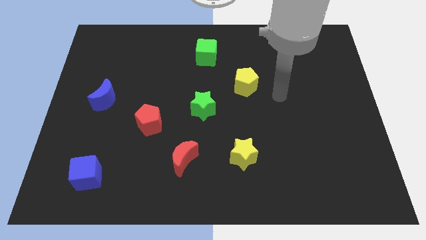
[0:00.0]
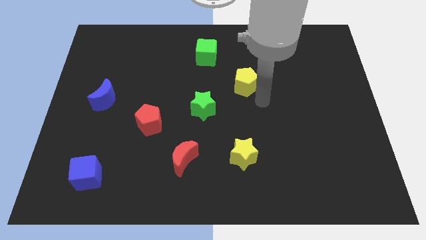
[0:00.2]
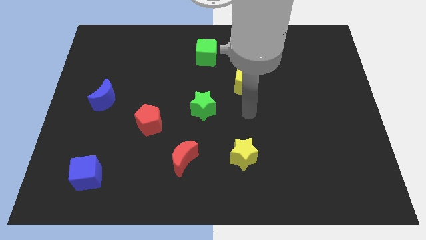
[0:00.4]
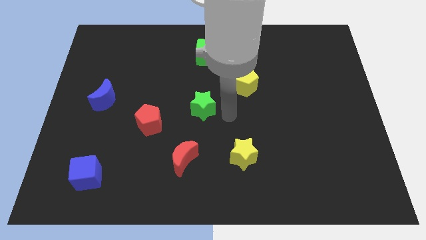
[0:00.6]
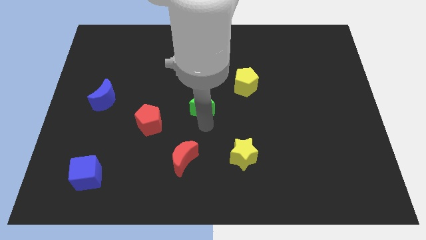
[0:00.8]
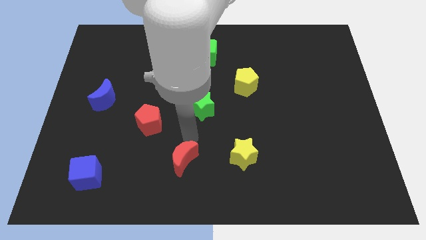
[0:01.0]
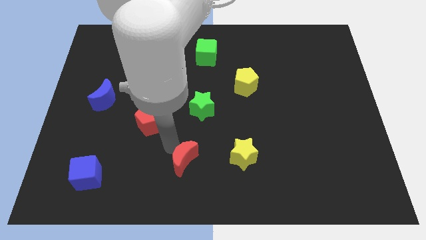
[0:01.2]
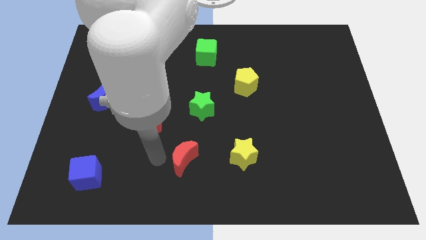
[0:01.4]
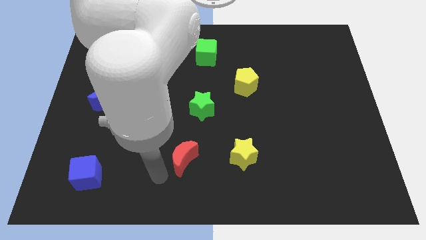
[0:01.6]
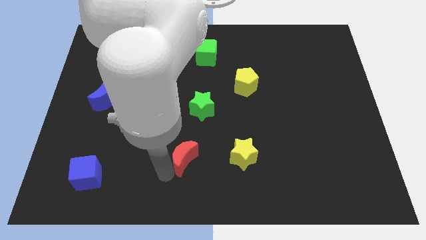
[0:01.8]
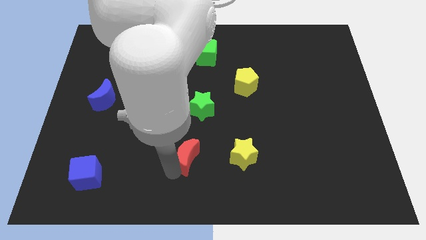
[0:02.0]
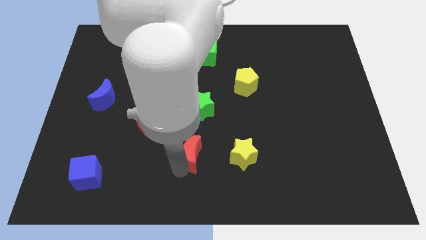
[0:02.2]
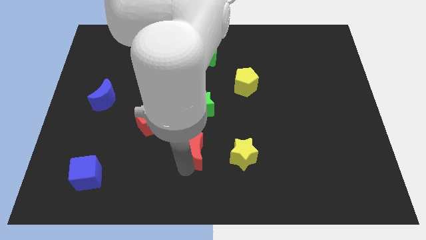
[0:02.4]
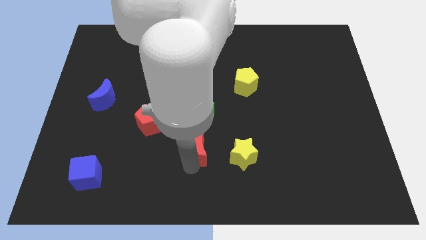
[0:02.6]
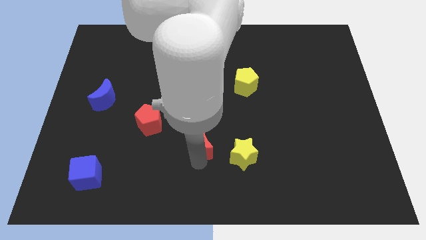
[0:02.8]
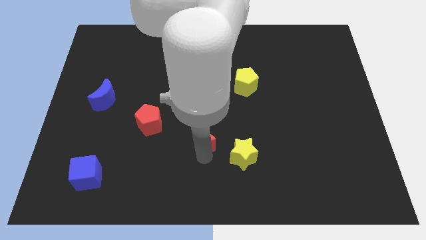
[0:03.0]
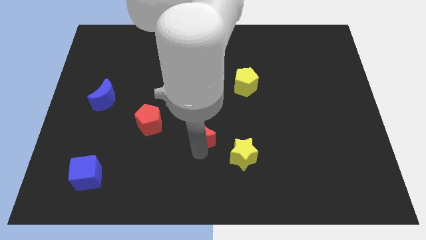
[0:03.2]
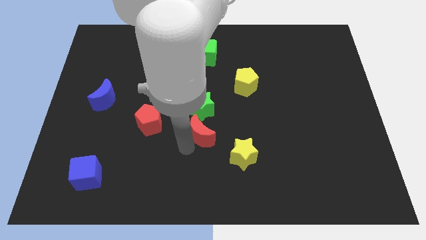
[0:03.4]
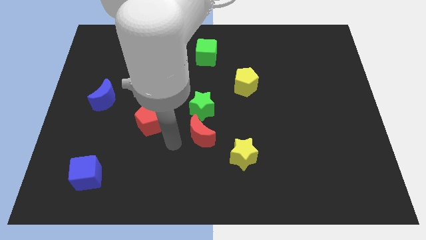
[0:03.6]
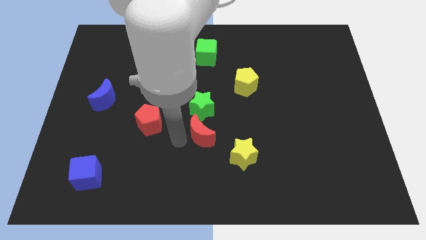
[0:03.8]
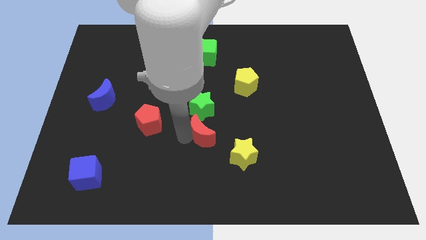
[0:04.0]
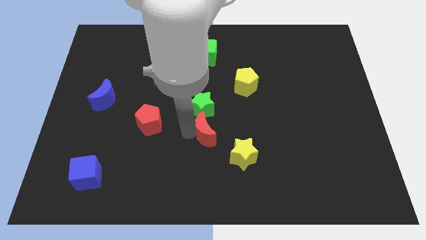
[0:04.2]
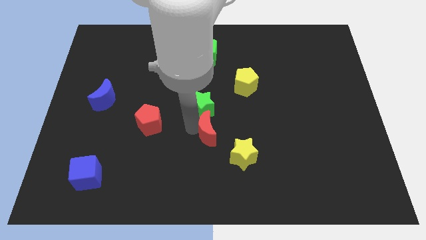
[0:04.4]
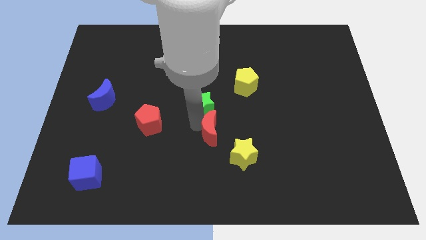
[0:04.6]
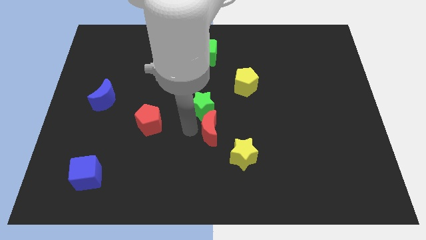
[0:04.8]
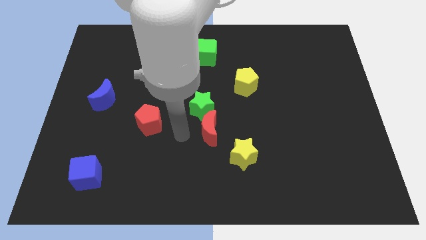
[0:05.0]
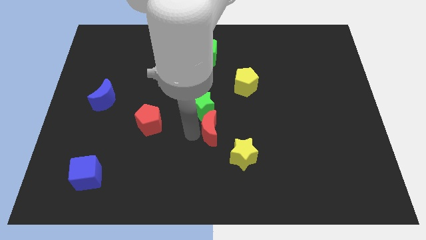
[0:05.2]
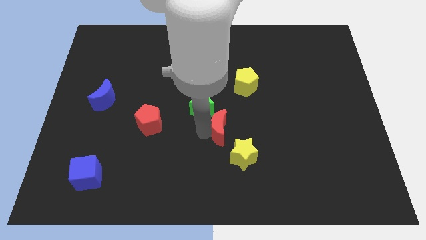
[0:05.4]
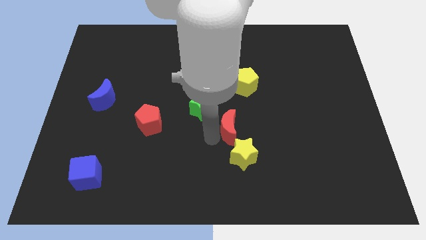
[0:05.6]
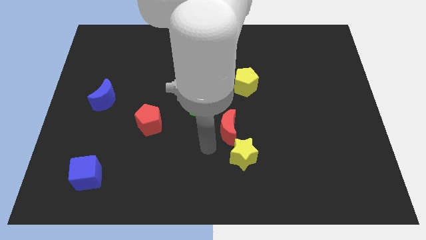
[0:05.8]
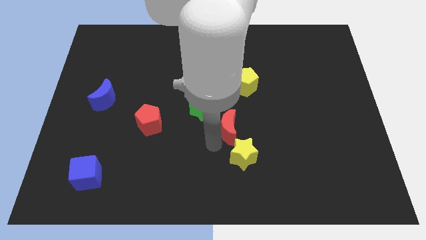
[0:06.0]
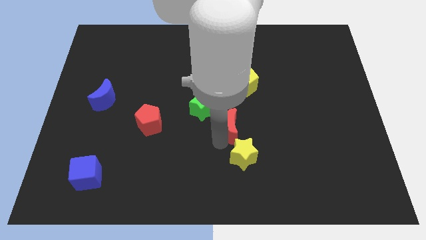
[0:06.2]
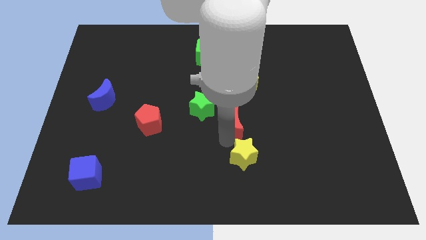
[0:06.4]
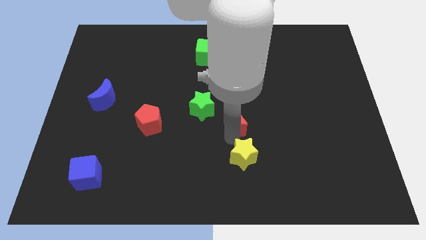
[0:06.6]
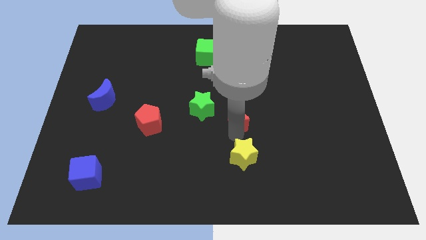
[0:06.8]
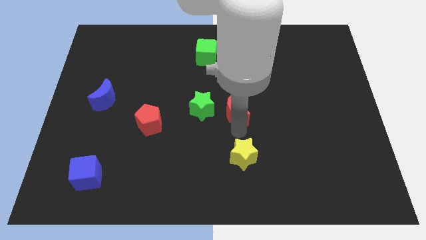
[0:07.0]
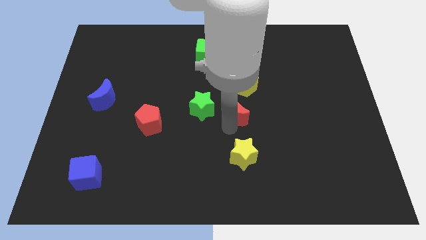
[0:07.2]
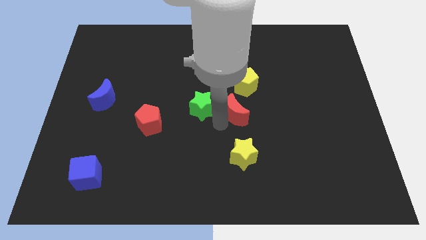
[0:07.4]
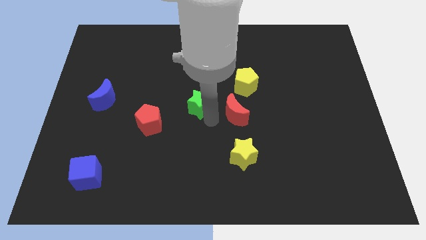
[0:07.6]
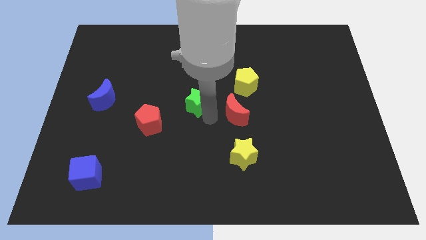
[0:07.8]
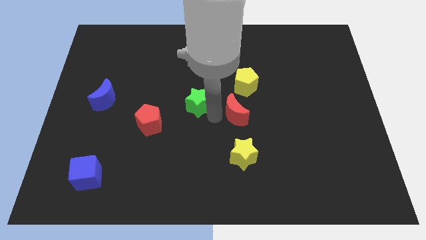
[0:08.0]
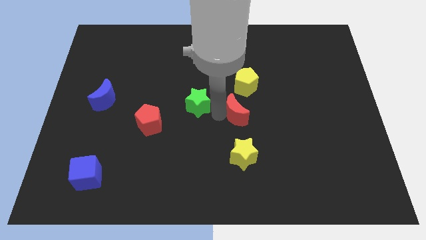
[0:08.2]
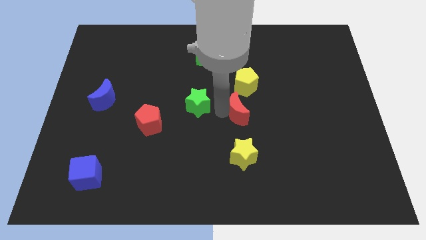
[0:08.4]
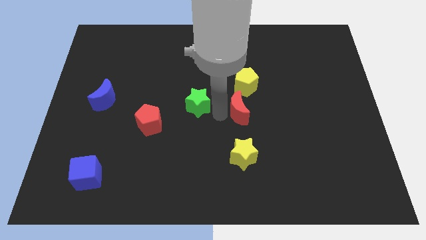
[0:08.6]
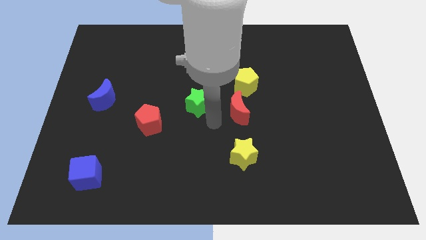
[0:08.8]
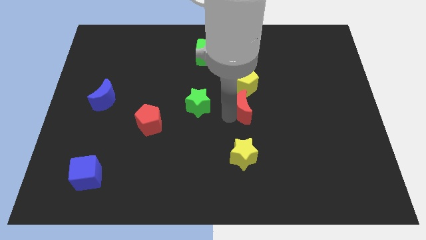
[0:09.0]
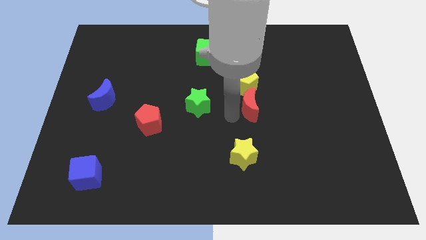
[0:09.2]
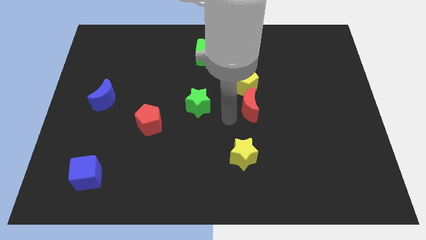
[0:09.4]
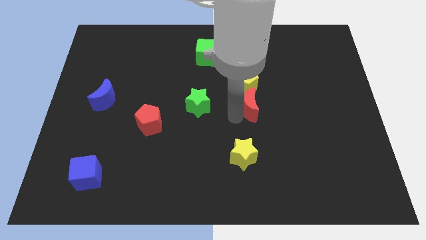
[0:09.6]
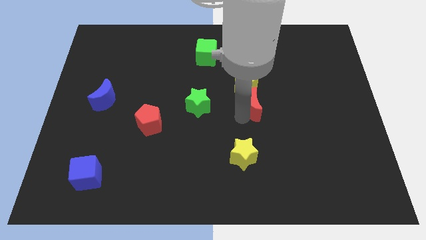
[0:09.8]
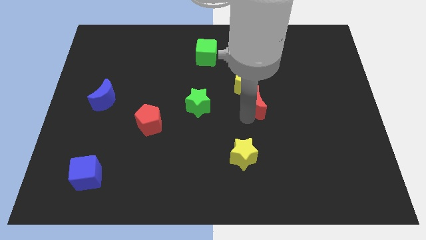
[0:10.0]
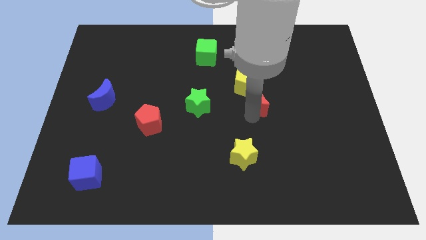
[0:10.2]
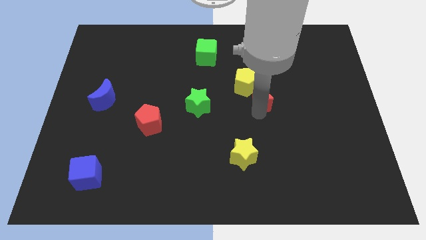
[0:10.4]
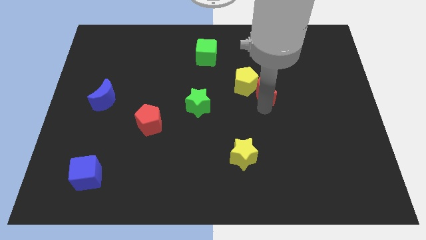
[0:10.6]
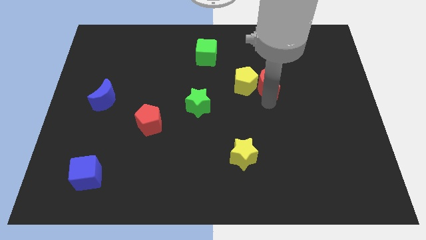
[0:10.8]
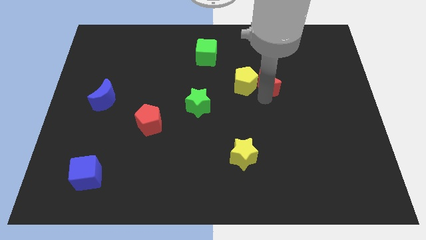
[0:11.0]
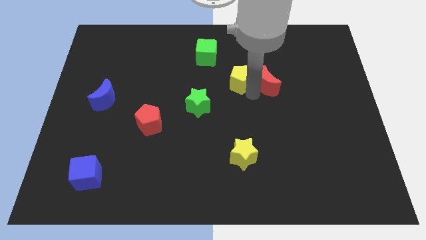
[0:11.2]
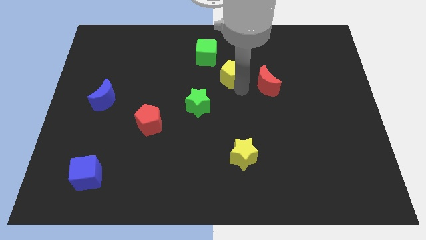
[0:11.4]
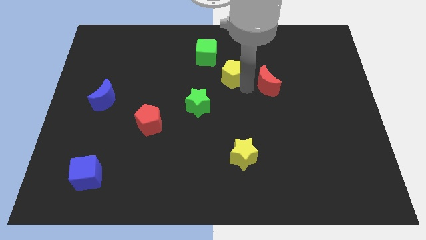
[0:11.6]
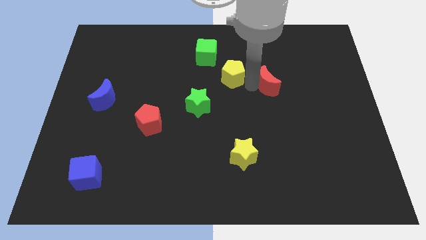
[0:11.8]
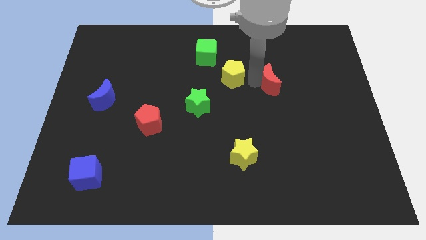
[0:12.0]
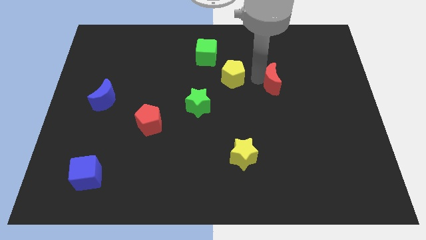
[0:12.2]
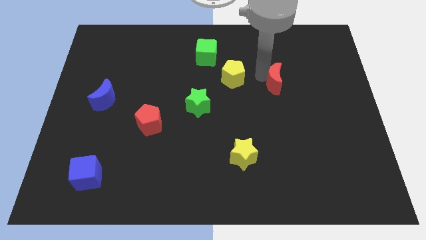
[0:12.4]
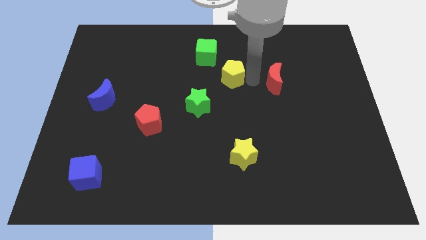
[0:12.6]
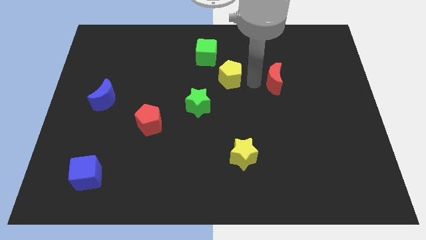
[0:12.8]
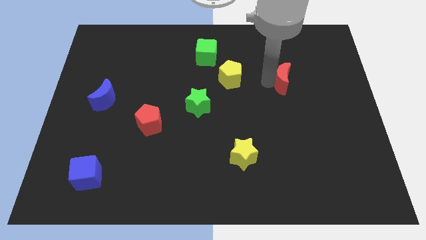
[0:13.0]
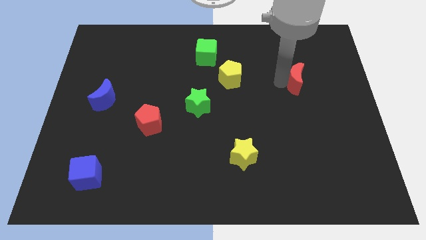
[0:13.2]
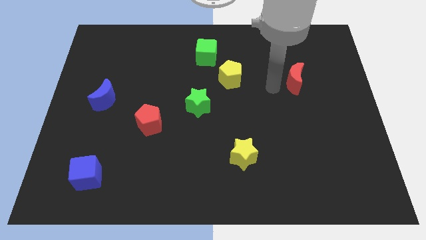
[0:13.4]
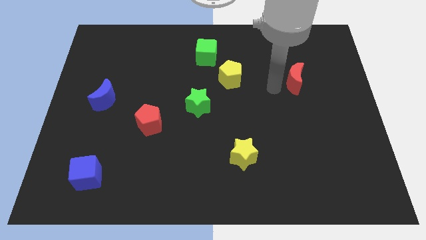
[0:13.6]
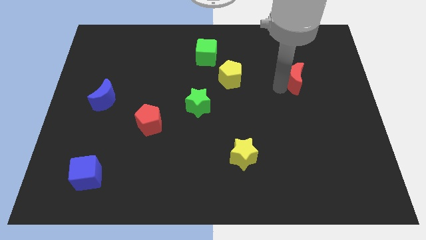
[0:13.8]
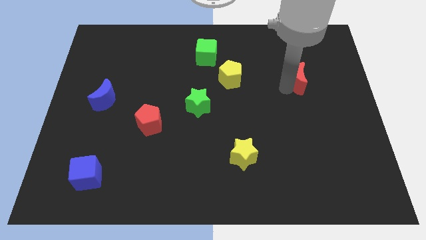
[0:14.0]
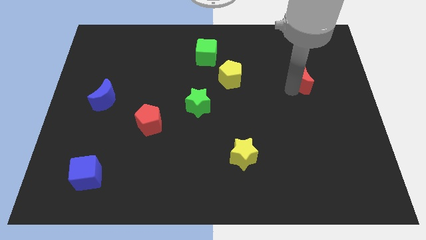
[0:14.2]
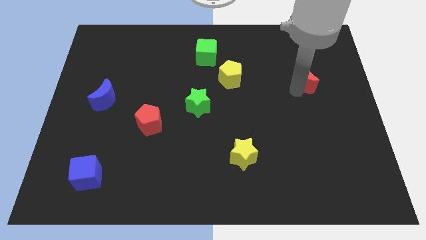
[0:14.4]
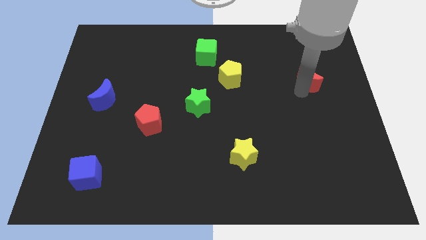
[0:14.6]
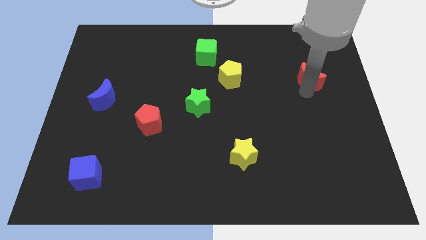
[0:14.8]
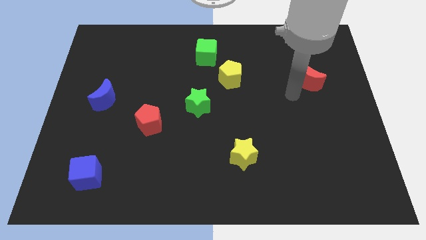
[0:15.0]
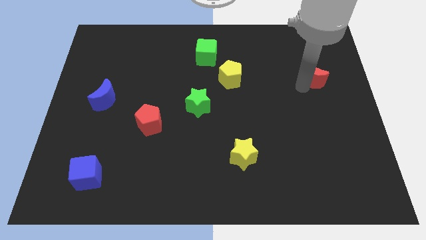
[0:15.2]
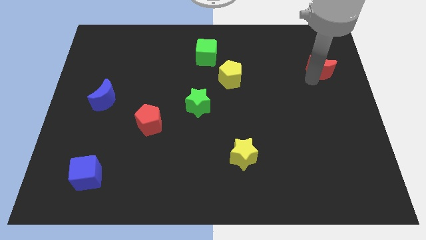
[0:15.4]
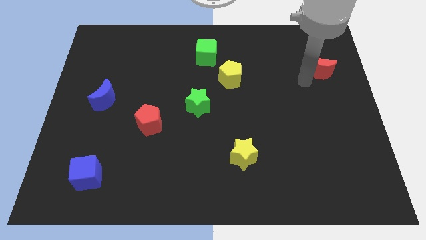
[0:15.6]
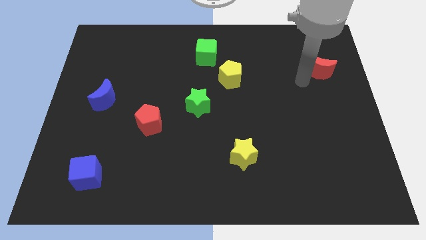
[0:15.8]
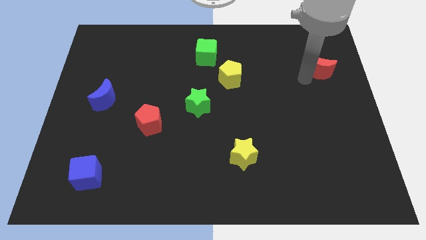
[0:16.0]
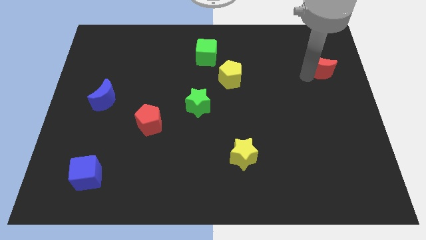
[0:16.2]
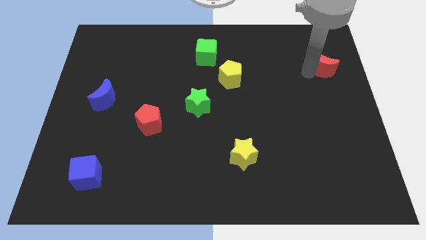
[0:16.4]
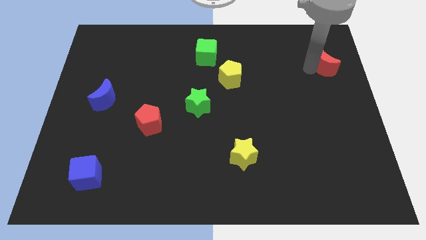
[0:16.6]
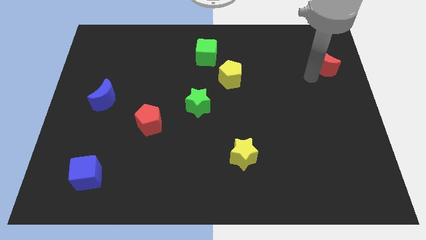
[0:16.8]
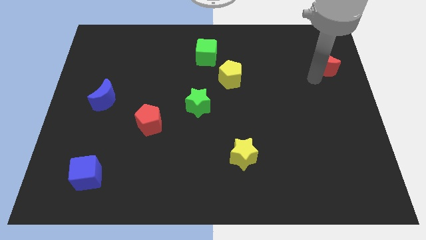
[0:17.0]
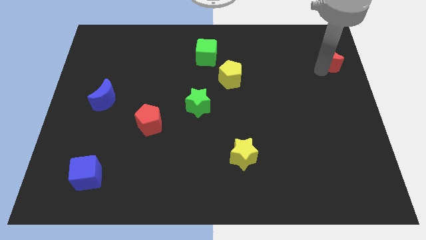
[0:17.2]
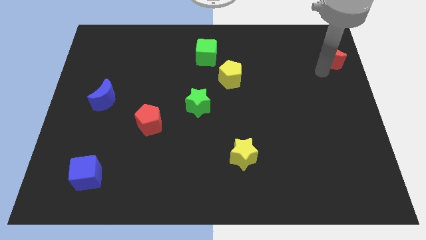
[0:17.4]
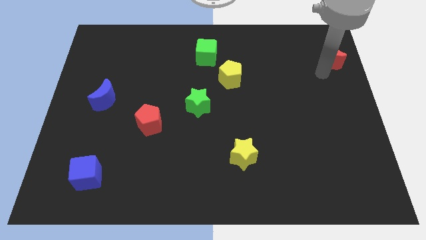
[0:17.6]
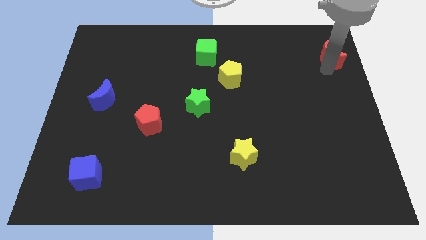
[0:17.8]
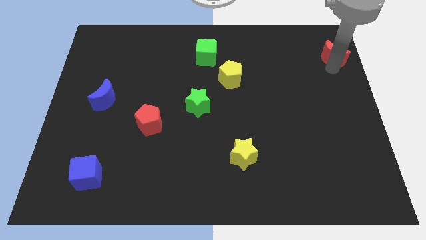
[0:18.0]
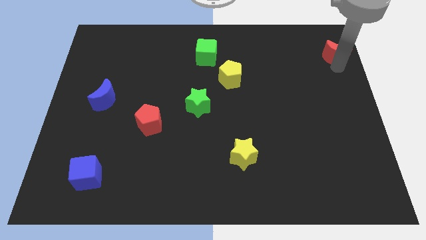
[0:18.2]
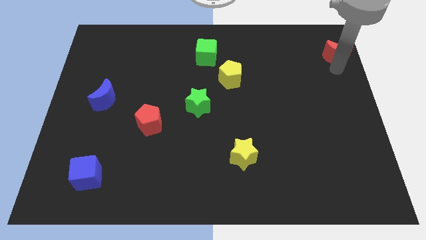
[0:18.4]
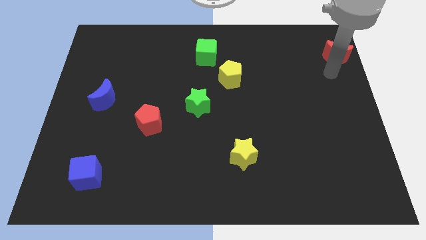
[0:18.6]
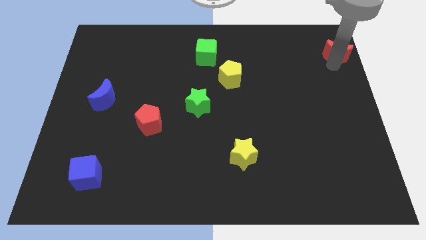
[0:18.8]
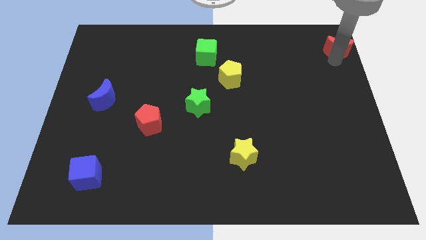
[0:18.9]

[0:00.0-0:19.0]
move the red moon to the top right
